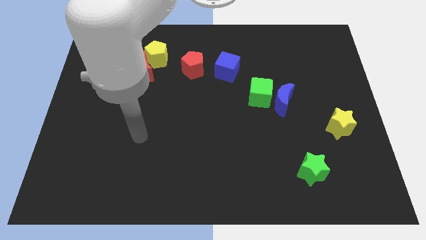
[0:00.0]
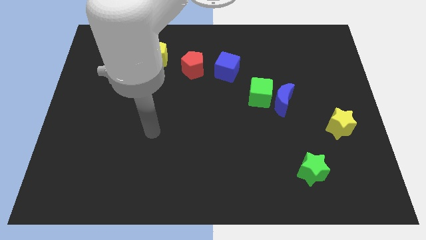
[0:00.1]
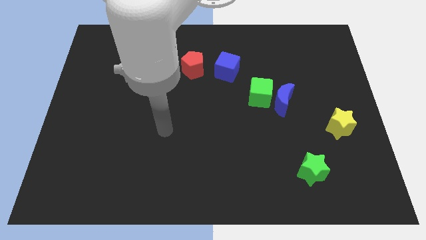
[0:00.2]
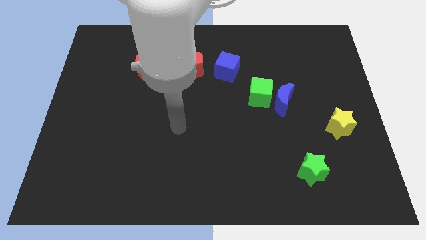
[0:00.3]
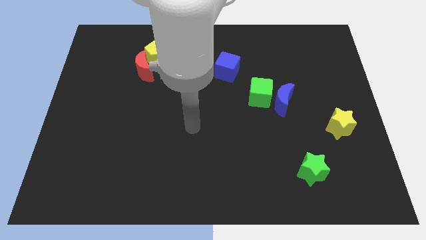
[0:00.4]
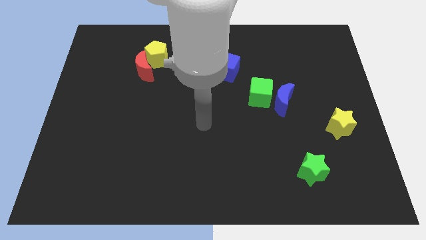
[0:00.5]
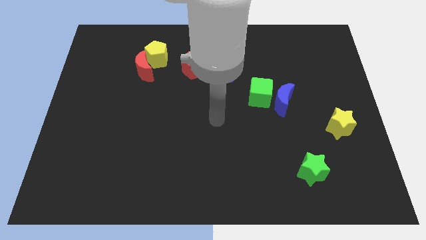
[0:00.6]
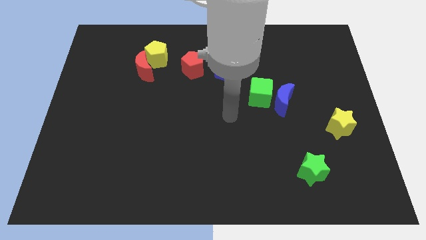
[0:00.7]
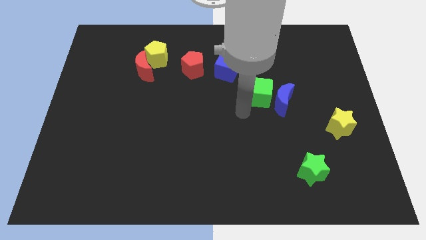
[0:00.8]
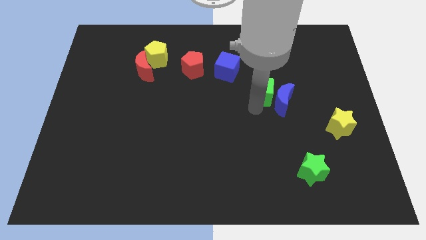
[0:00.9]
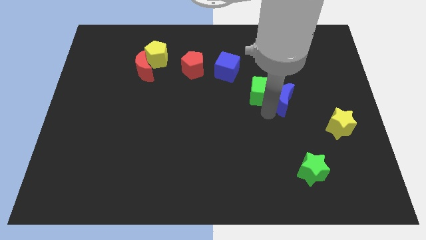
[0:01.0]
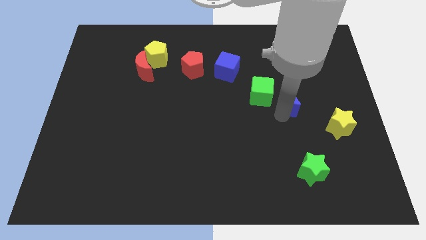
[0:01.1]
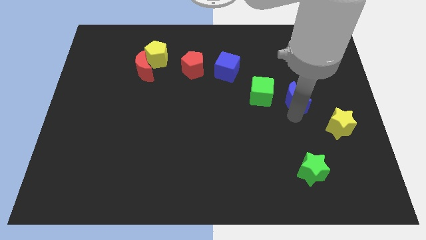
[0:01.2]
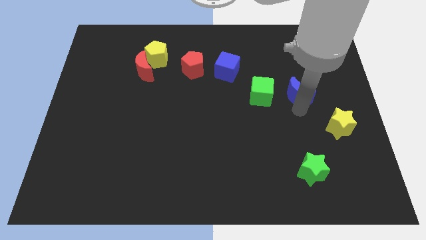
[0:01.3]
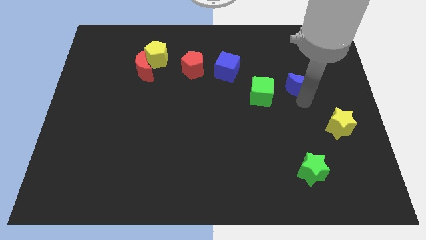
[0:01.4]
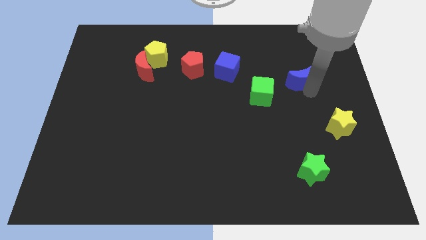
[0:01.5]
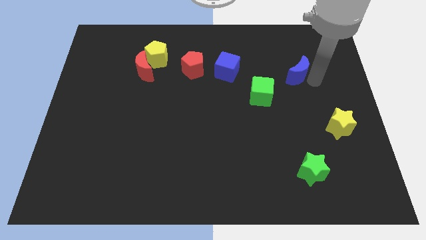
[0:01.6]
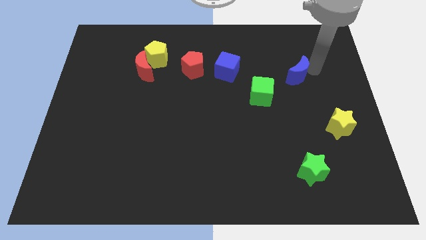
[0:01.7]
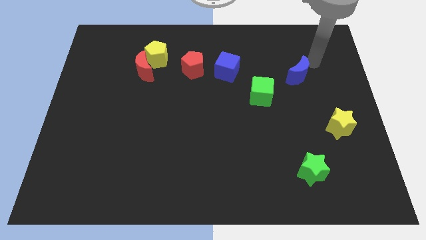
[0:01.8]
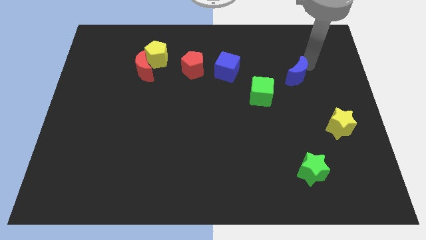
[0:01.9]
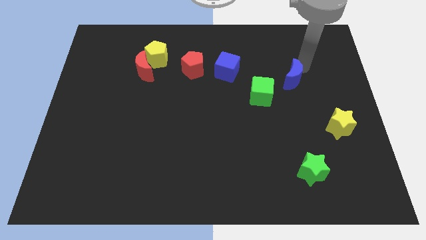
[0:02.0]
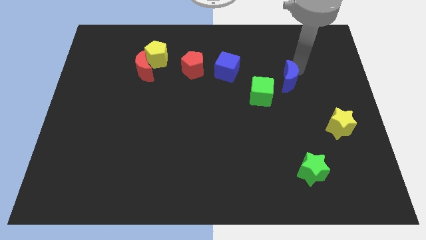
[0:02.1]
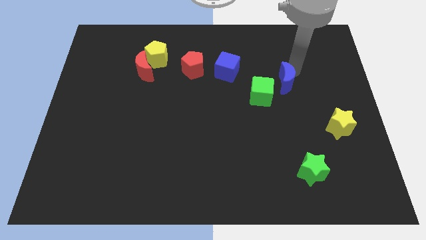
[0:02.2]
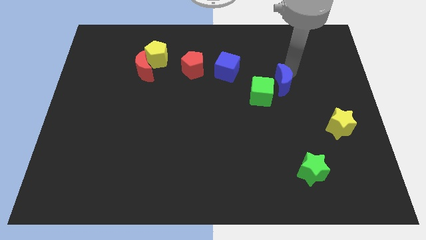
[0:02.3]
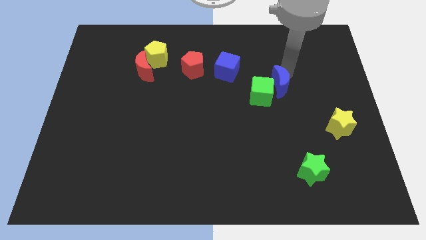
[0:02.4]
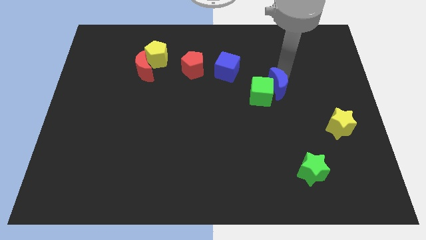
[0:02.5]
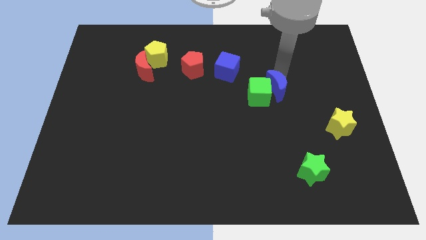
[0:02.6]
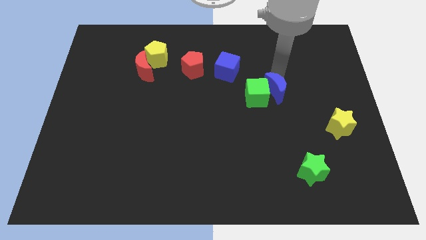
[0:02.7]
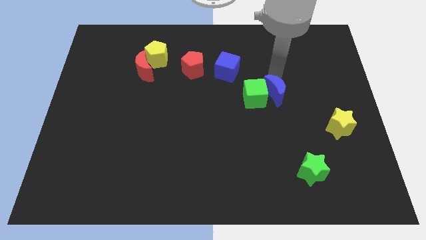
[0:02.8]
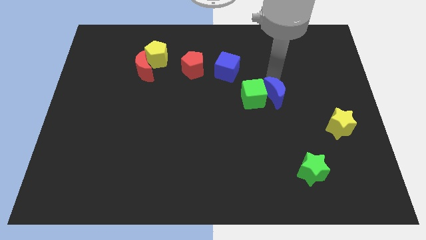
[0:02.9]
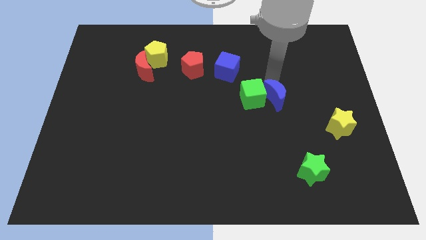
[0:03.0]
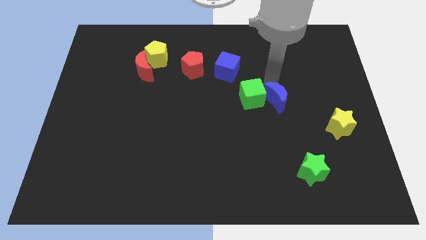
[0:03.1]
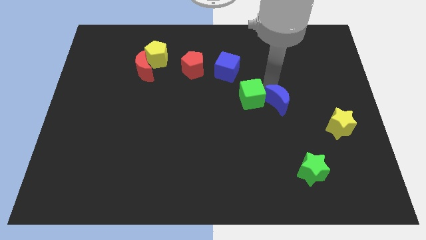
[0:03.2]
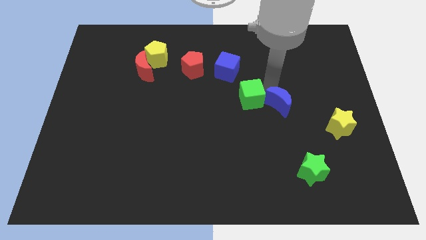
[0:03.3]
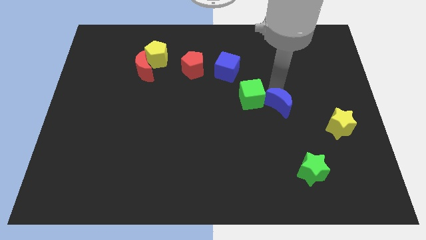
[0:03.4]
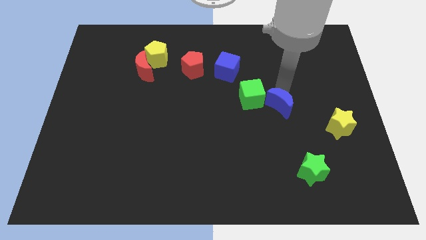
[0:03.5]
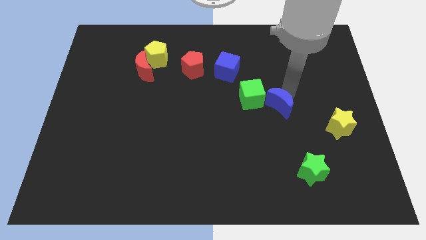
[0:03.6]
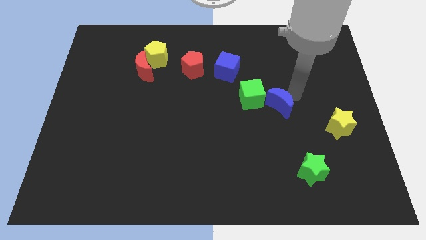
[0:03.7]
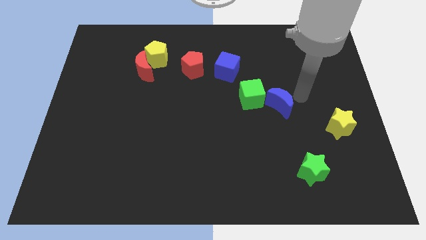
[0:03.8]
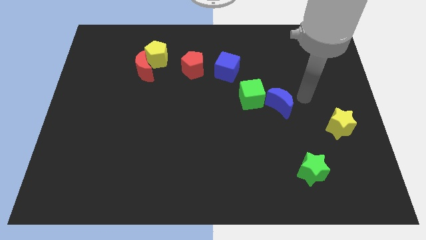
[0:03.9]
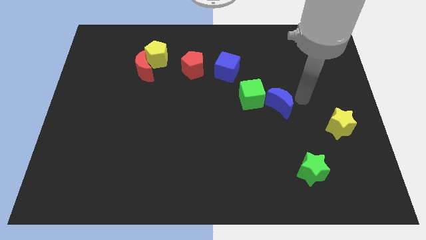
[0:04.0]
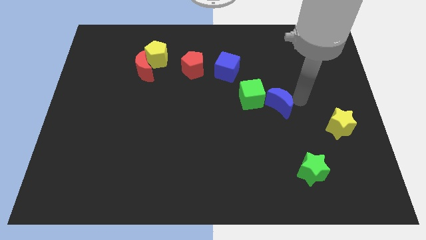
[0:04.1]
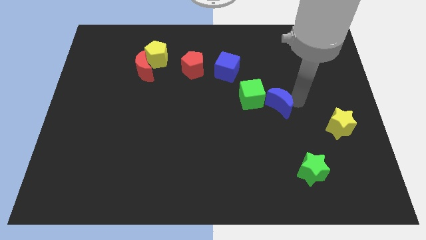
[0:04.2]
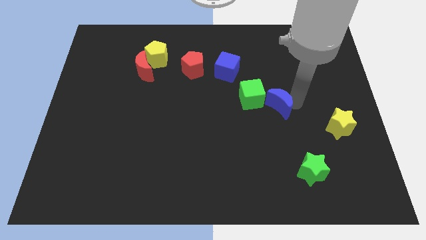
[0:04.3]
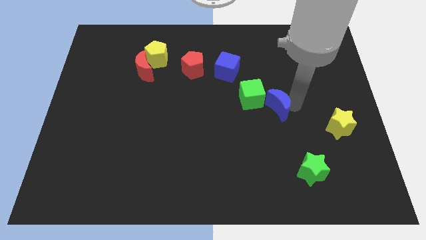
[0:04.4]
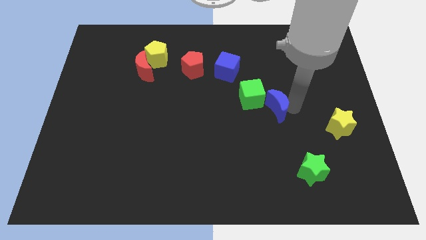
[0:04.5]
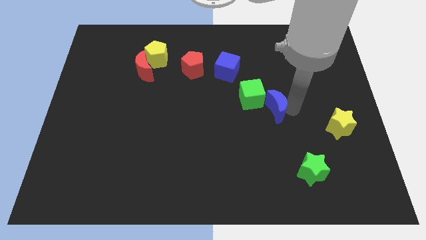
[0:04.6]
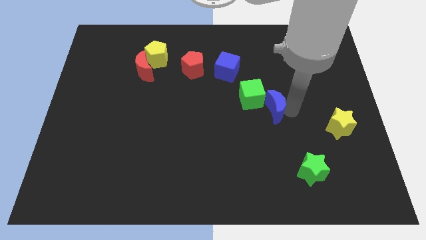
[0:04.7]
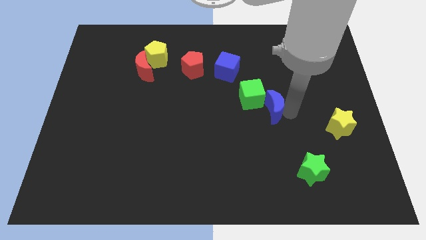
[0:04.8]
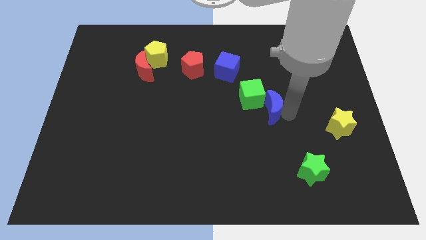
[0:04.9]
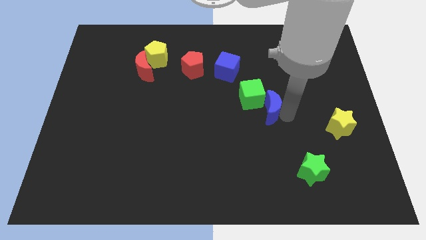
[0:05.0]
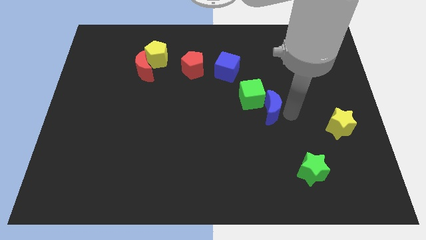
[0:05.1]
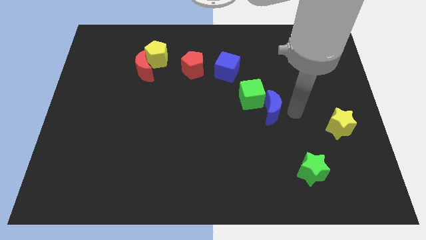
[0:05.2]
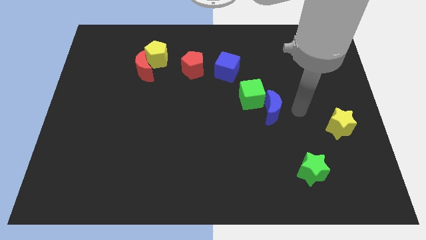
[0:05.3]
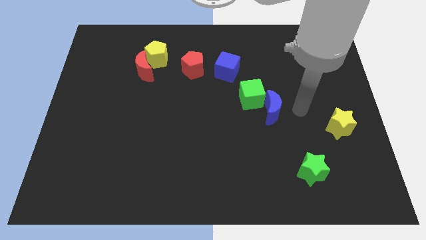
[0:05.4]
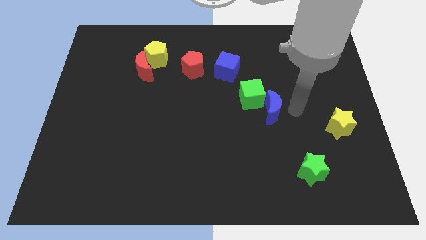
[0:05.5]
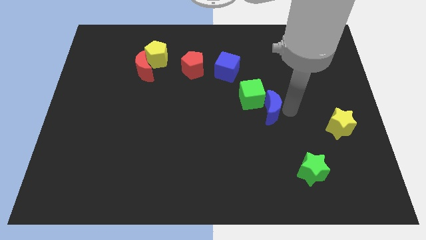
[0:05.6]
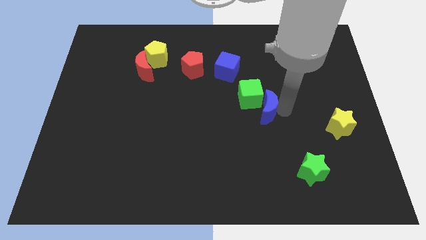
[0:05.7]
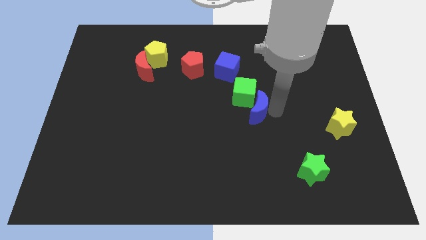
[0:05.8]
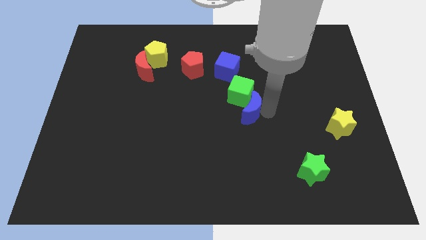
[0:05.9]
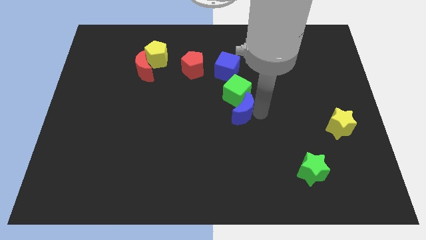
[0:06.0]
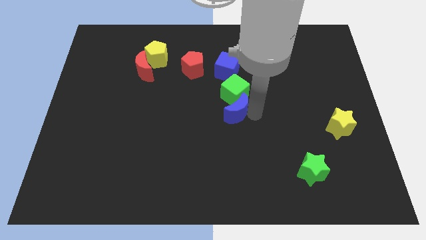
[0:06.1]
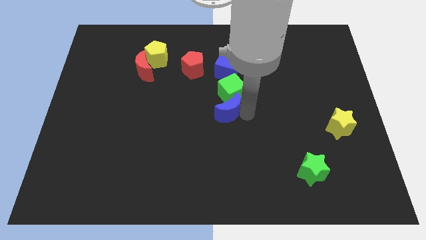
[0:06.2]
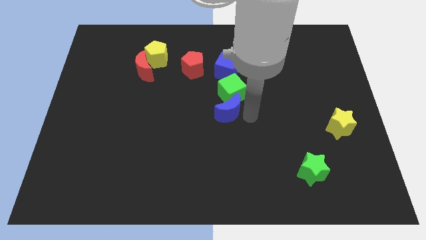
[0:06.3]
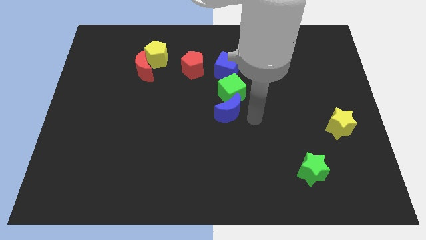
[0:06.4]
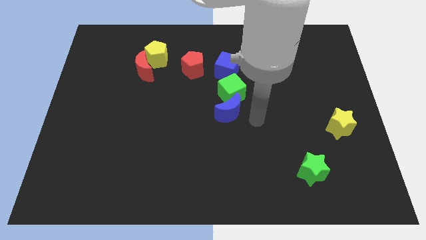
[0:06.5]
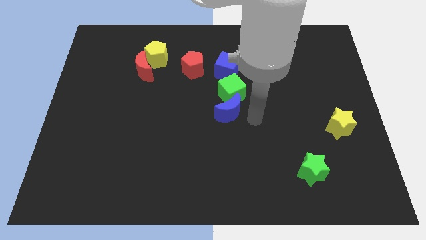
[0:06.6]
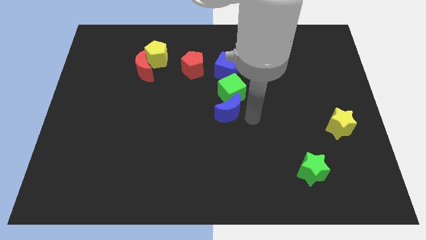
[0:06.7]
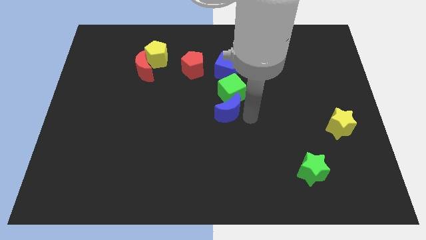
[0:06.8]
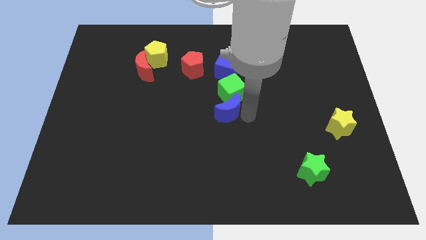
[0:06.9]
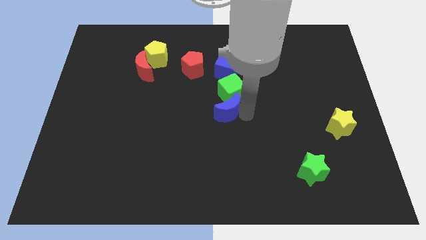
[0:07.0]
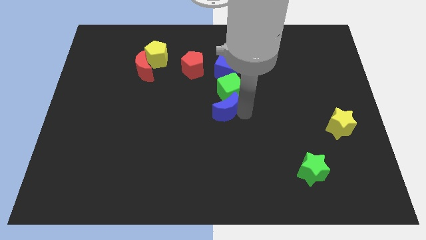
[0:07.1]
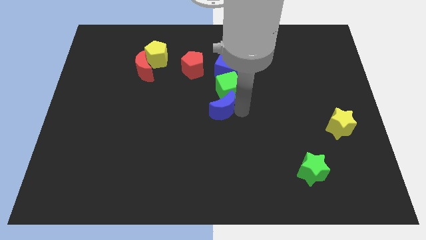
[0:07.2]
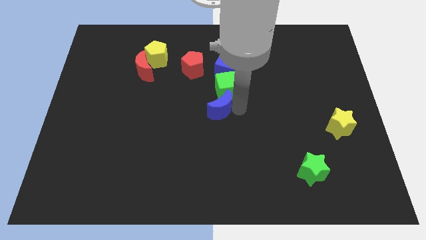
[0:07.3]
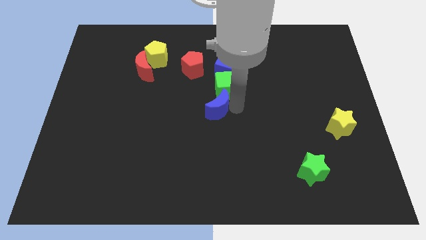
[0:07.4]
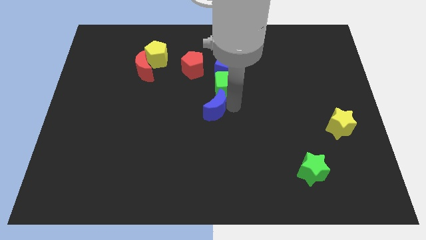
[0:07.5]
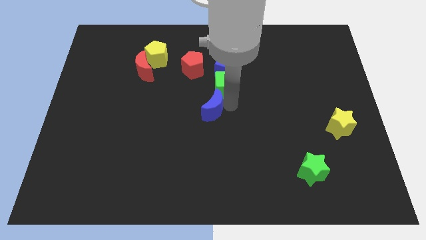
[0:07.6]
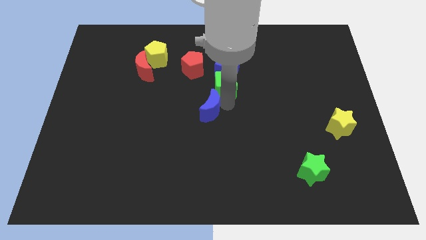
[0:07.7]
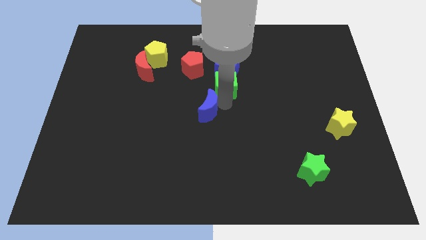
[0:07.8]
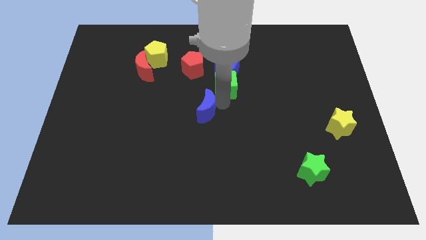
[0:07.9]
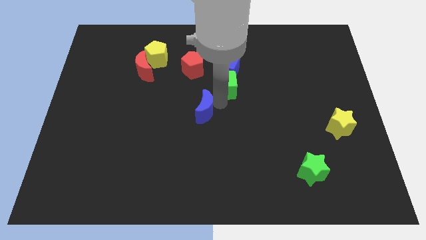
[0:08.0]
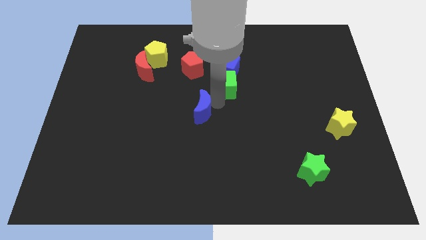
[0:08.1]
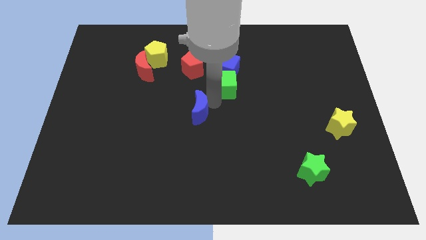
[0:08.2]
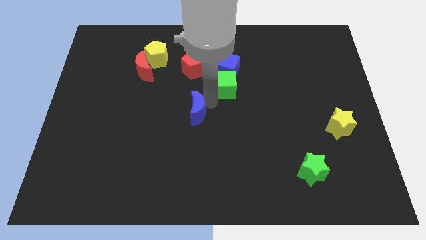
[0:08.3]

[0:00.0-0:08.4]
slide the blue moon to the left
